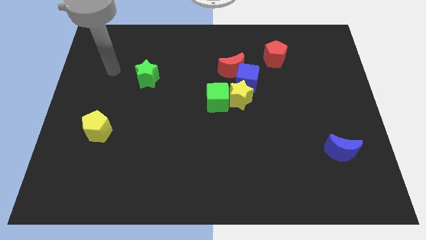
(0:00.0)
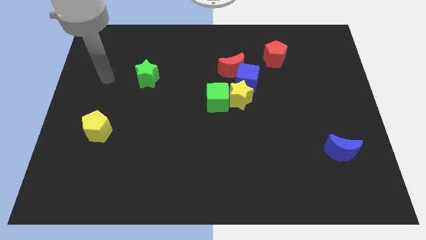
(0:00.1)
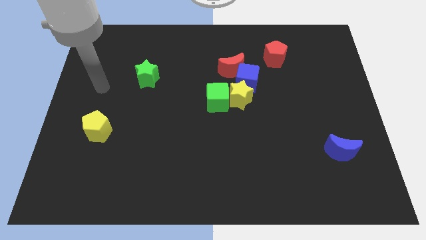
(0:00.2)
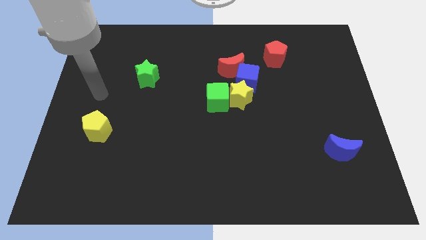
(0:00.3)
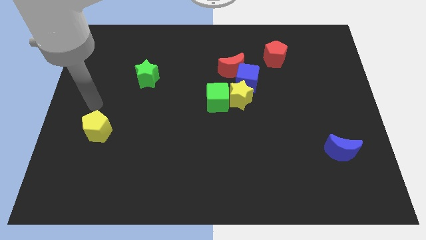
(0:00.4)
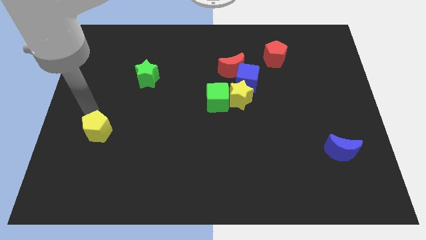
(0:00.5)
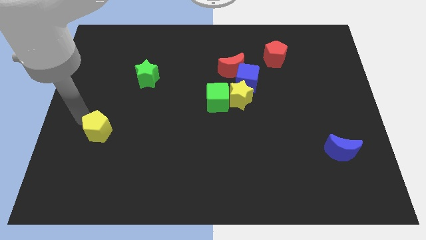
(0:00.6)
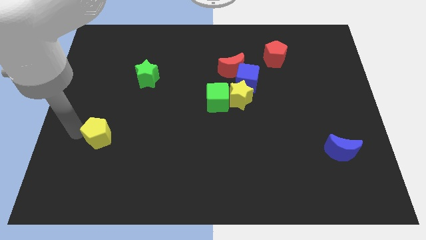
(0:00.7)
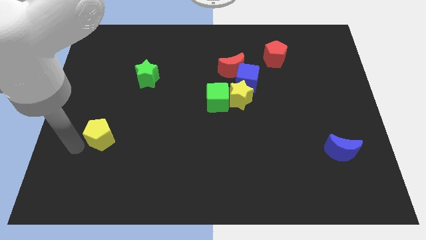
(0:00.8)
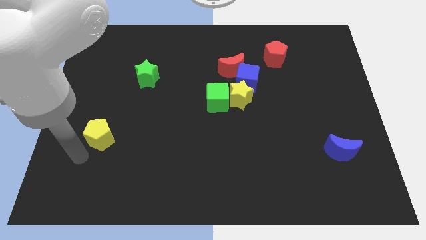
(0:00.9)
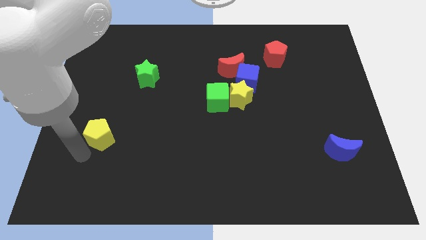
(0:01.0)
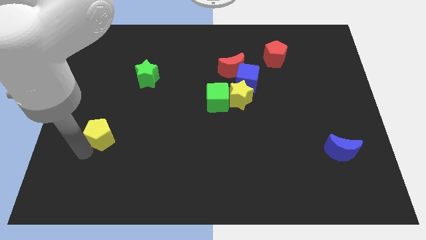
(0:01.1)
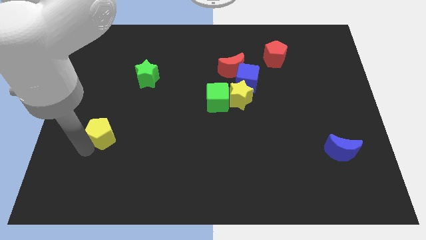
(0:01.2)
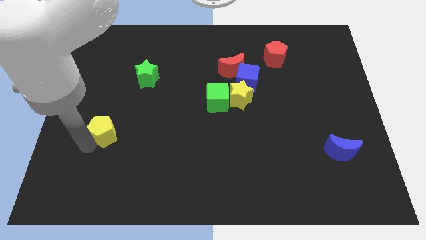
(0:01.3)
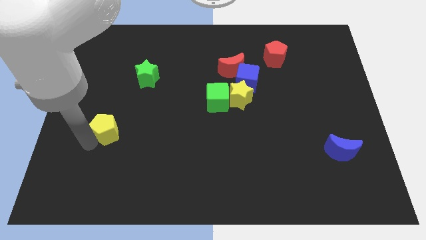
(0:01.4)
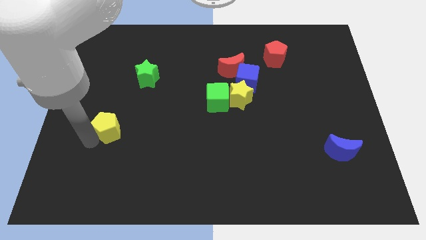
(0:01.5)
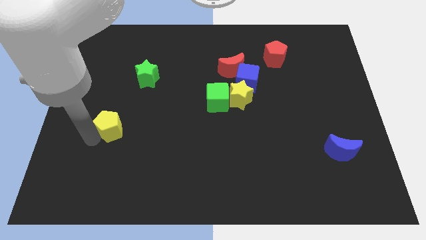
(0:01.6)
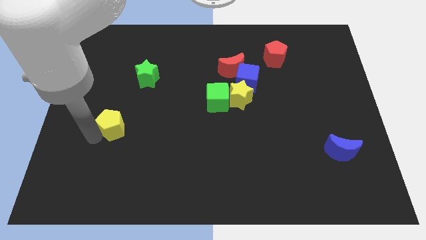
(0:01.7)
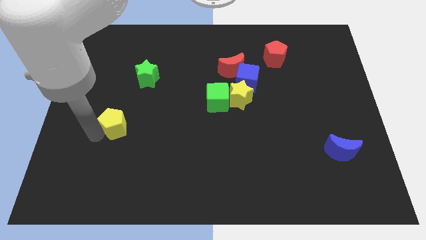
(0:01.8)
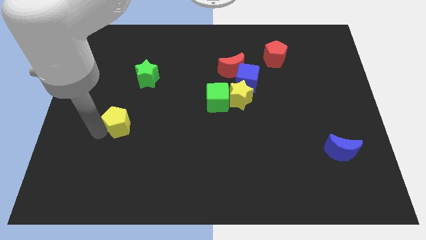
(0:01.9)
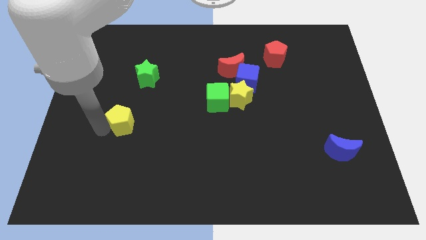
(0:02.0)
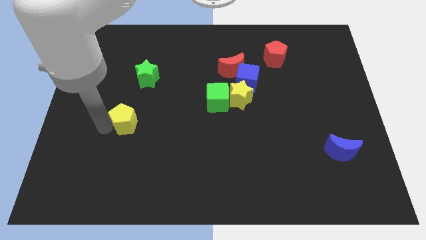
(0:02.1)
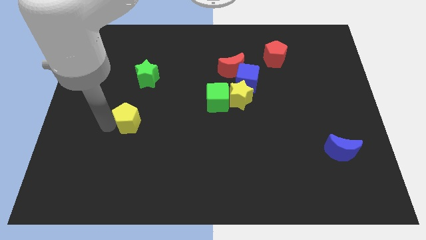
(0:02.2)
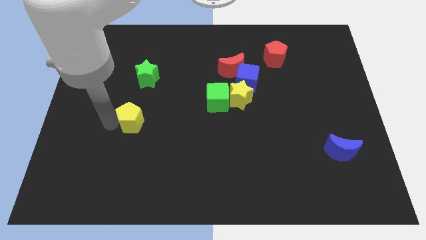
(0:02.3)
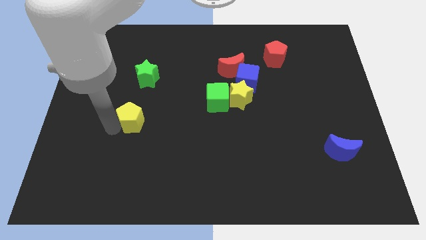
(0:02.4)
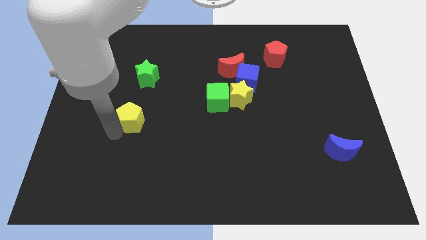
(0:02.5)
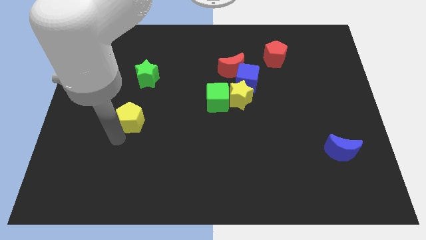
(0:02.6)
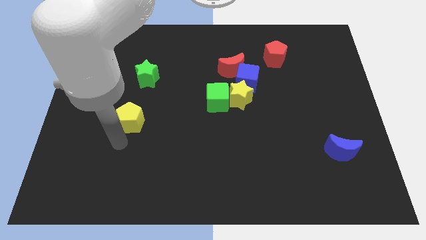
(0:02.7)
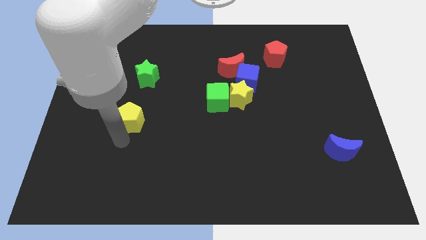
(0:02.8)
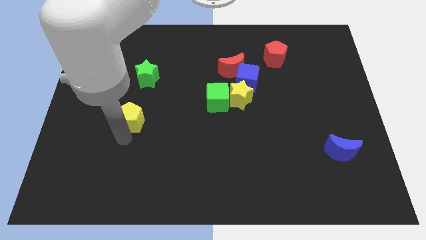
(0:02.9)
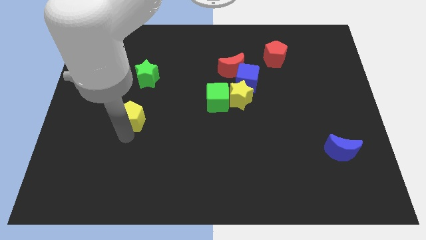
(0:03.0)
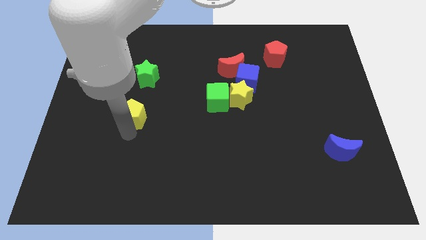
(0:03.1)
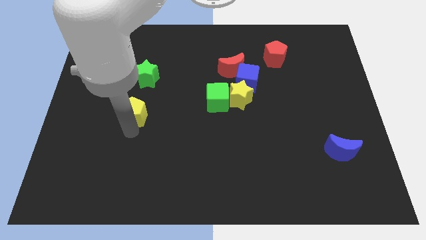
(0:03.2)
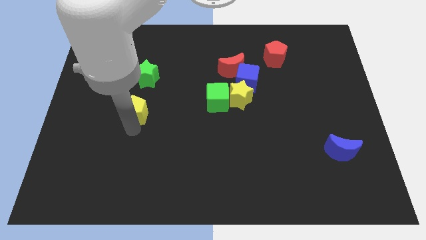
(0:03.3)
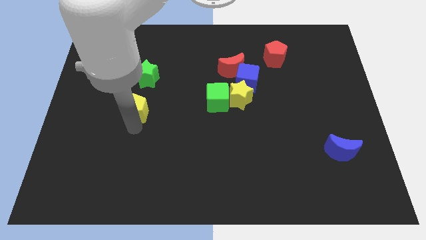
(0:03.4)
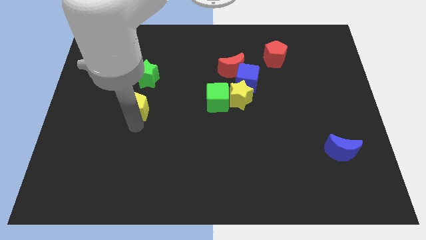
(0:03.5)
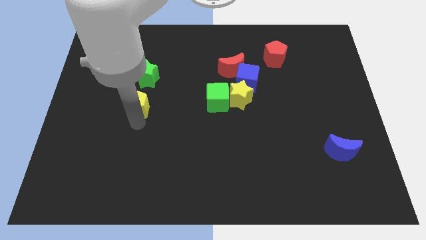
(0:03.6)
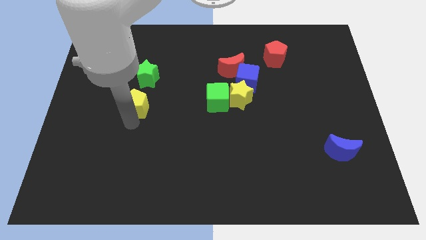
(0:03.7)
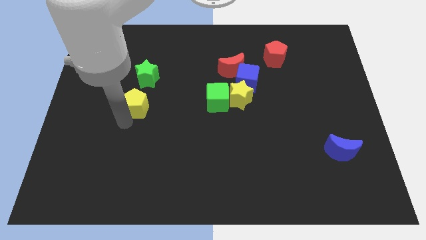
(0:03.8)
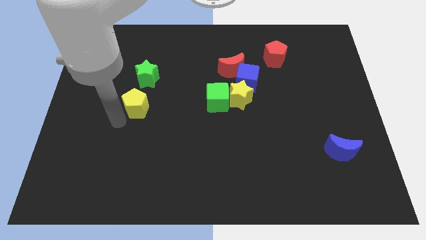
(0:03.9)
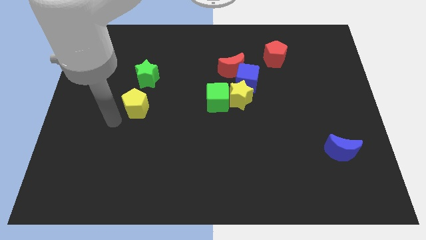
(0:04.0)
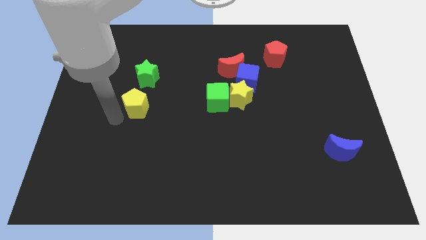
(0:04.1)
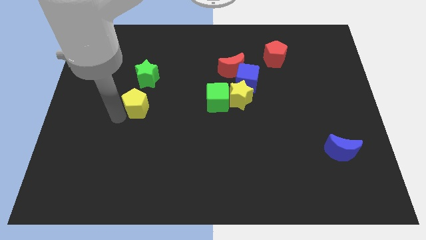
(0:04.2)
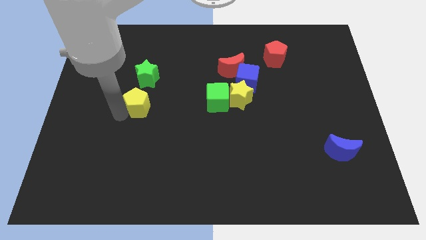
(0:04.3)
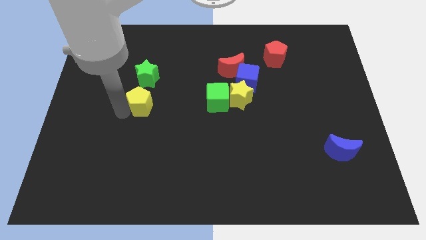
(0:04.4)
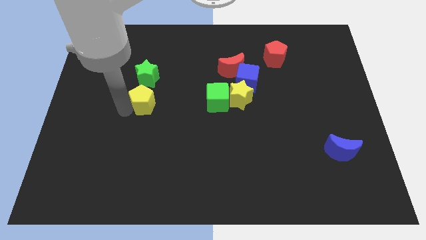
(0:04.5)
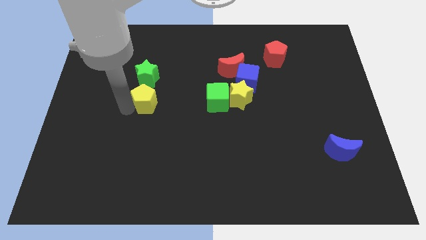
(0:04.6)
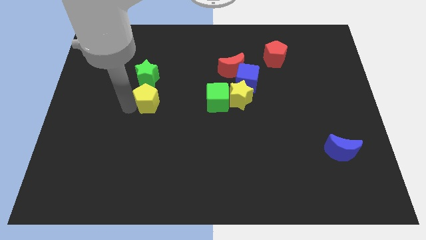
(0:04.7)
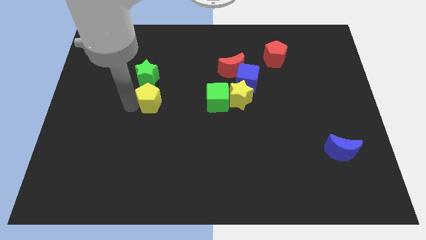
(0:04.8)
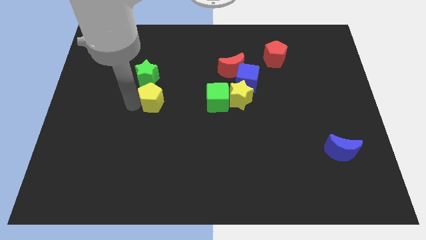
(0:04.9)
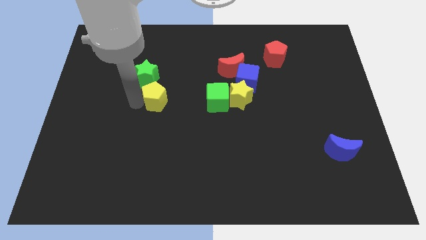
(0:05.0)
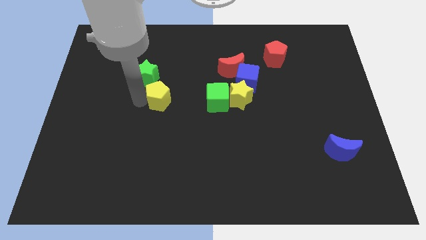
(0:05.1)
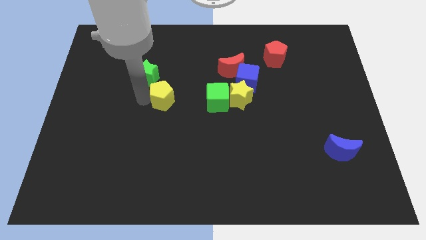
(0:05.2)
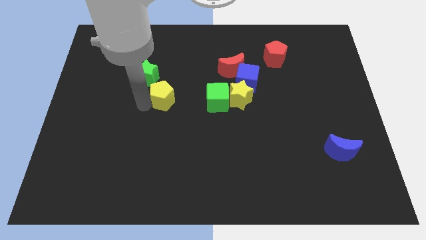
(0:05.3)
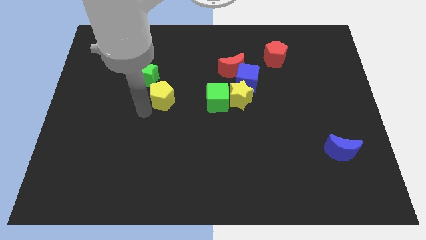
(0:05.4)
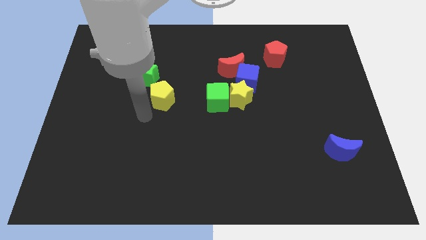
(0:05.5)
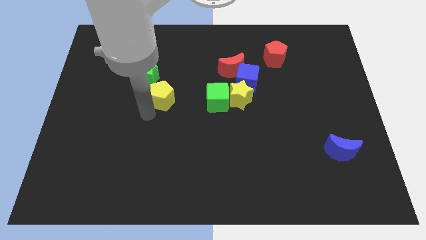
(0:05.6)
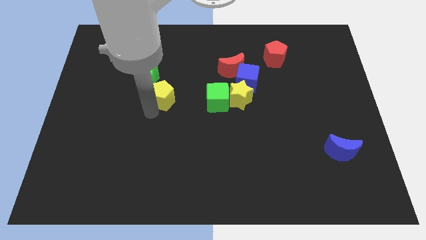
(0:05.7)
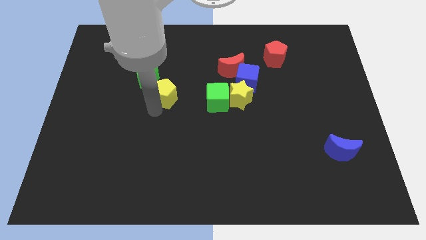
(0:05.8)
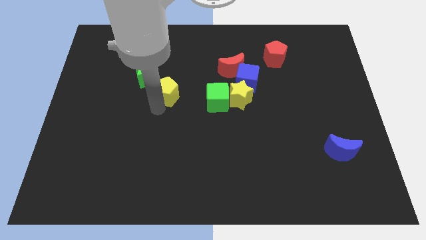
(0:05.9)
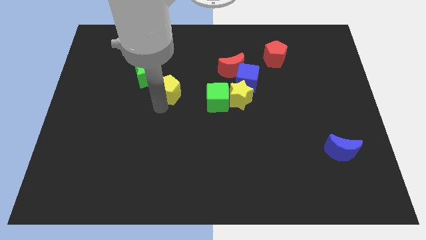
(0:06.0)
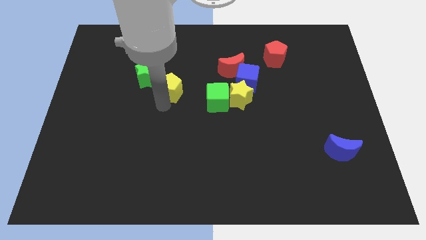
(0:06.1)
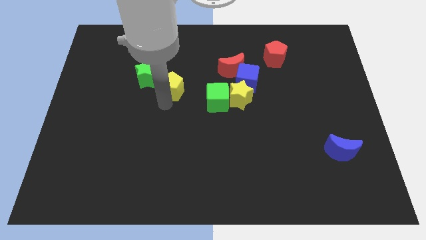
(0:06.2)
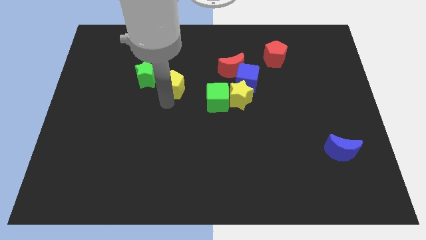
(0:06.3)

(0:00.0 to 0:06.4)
slide the yellow pentagon diagonally up and right

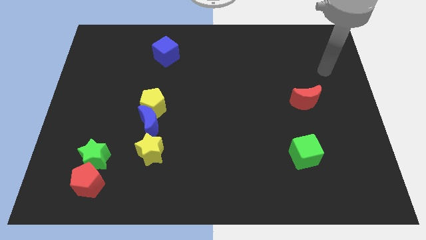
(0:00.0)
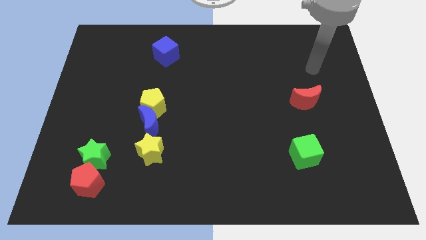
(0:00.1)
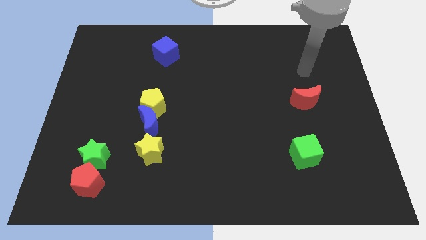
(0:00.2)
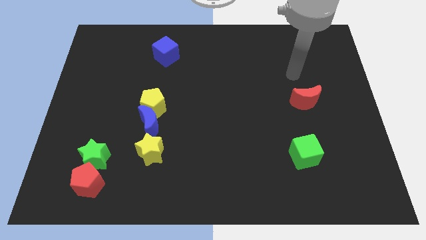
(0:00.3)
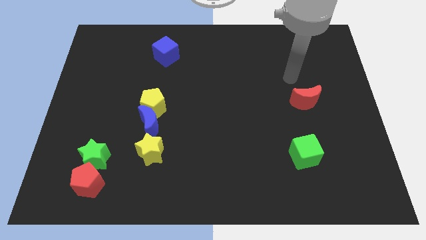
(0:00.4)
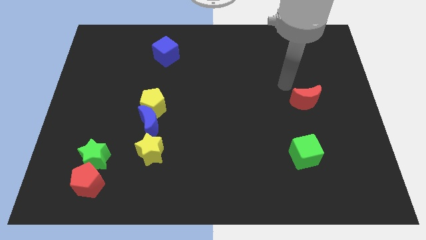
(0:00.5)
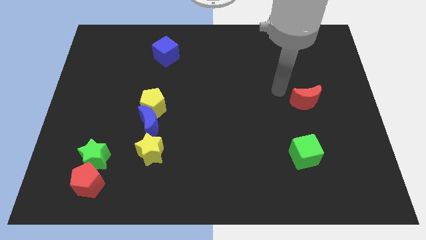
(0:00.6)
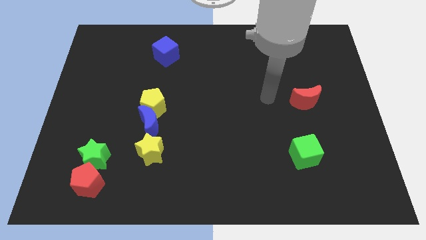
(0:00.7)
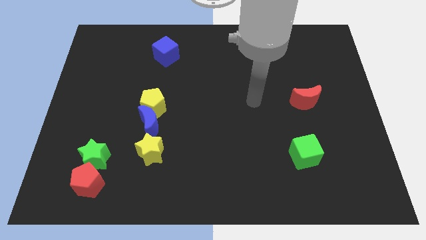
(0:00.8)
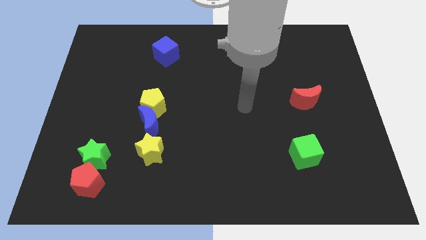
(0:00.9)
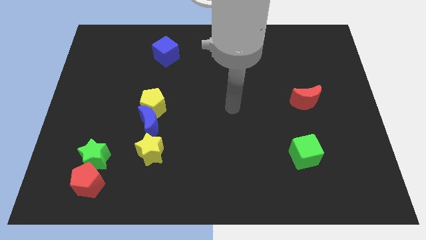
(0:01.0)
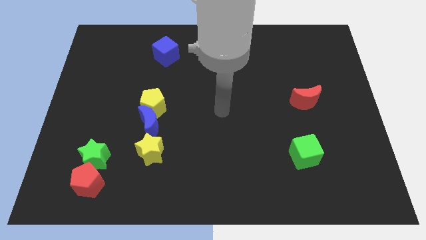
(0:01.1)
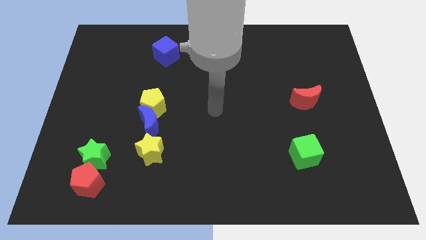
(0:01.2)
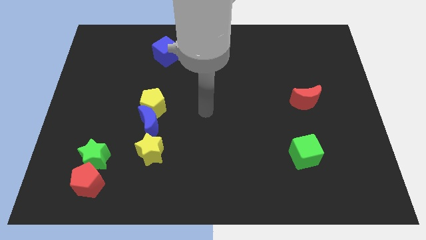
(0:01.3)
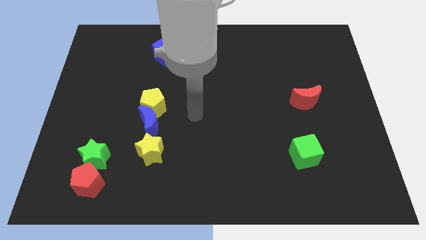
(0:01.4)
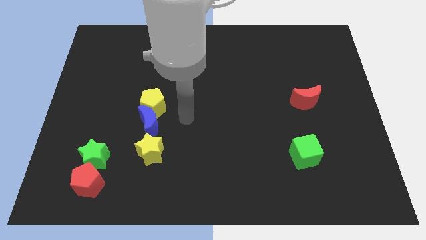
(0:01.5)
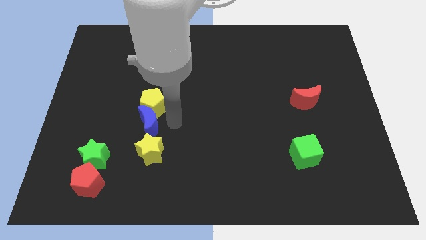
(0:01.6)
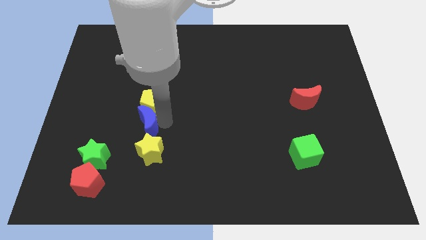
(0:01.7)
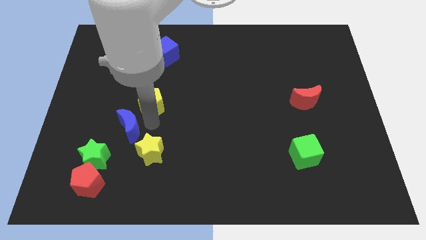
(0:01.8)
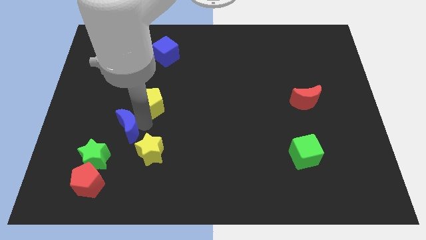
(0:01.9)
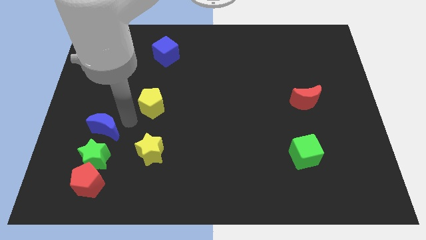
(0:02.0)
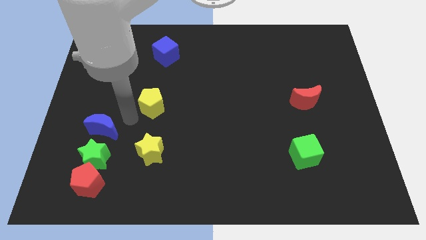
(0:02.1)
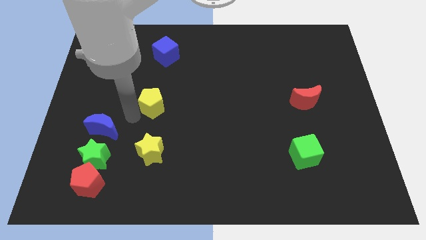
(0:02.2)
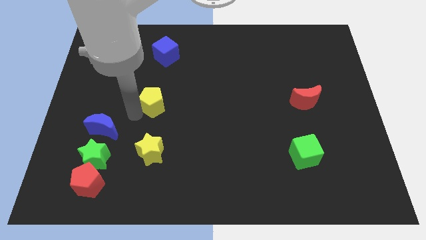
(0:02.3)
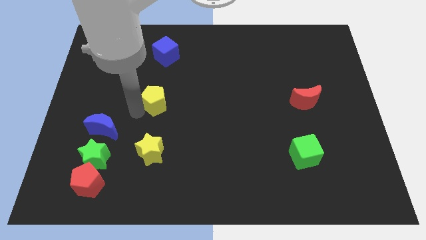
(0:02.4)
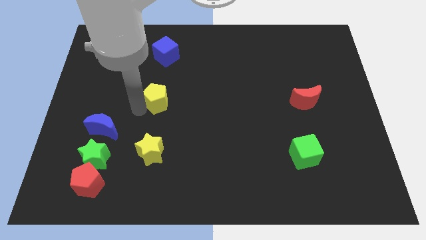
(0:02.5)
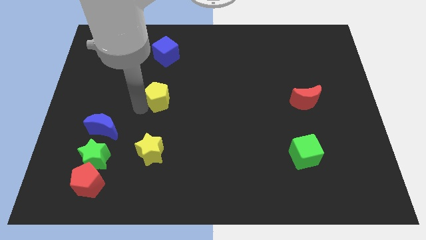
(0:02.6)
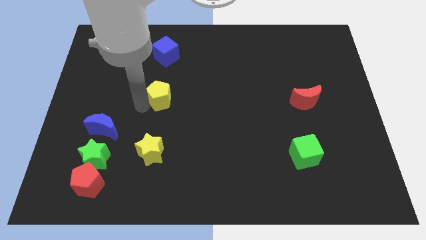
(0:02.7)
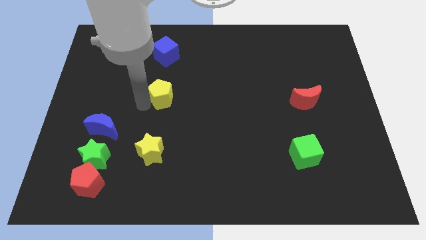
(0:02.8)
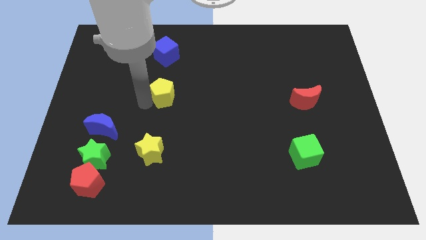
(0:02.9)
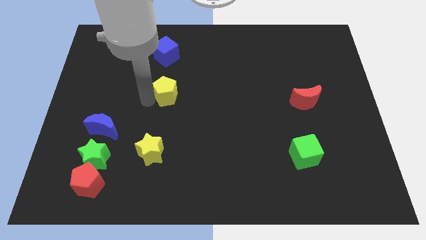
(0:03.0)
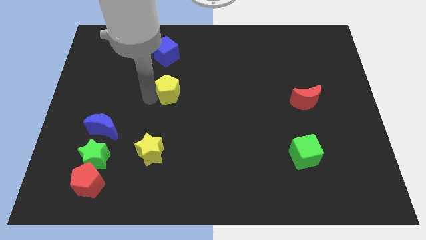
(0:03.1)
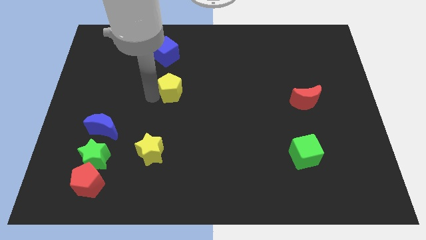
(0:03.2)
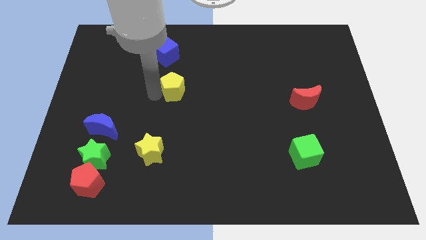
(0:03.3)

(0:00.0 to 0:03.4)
slide the yellow pentagon a bit upwards and then right
